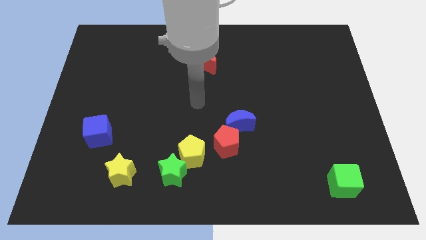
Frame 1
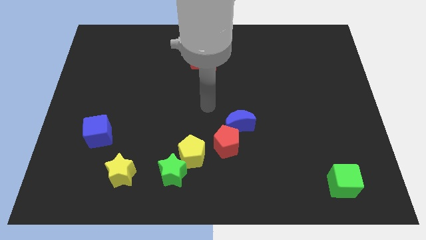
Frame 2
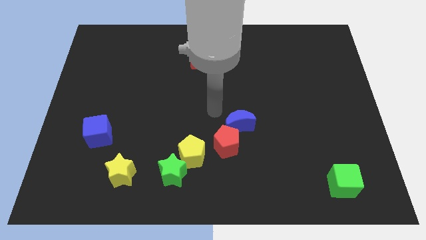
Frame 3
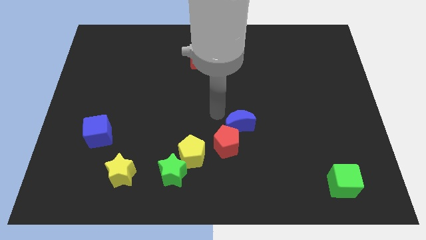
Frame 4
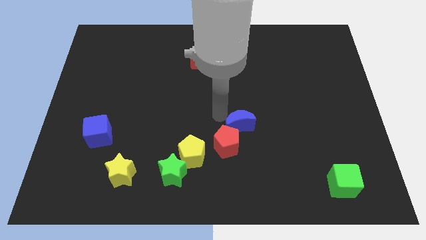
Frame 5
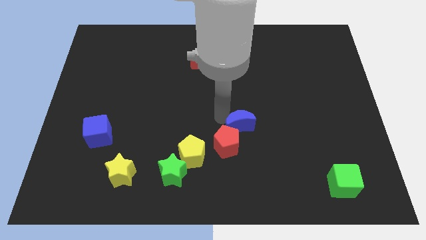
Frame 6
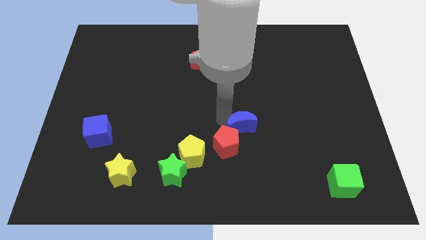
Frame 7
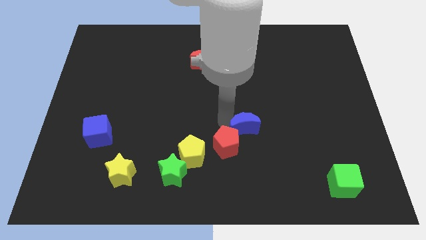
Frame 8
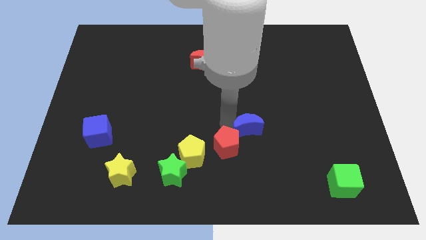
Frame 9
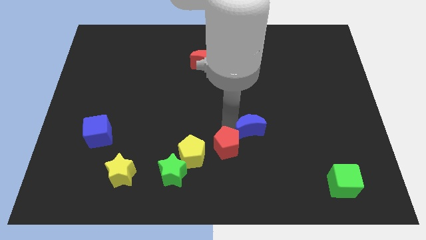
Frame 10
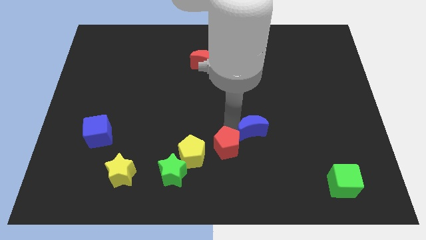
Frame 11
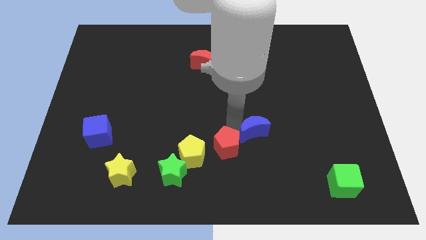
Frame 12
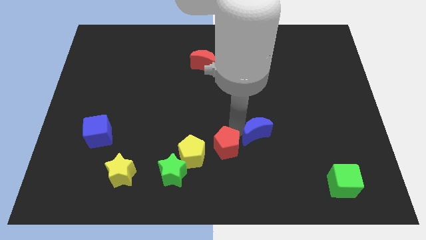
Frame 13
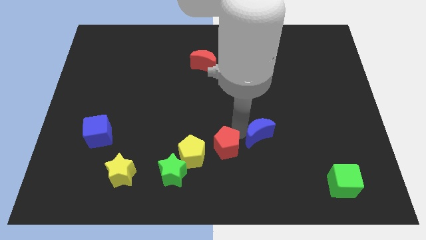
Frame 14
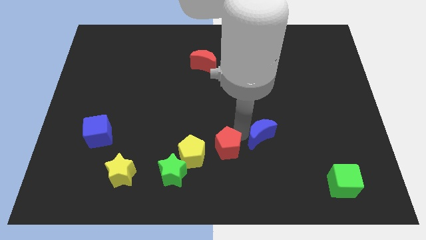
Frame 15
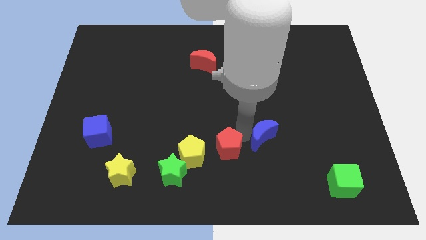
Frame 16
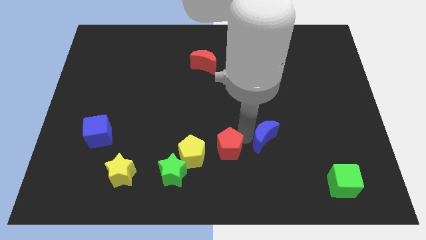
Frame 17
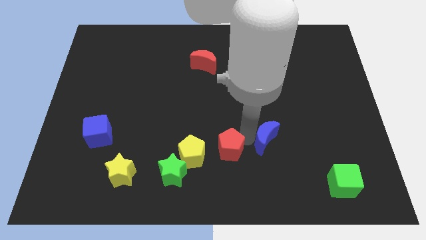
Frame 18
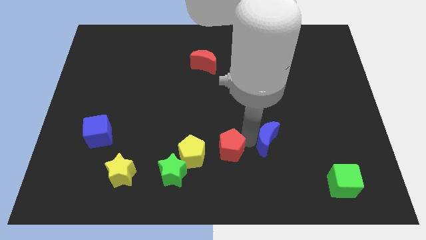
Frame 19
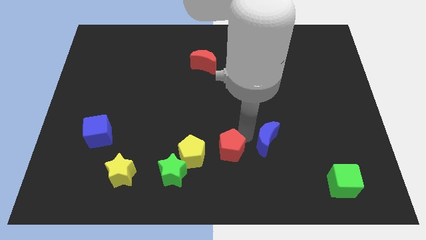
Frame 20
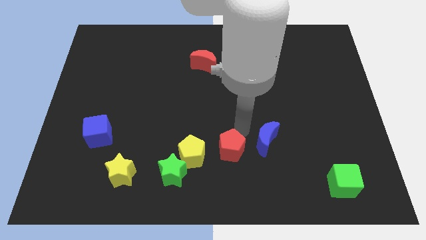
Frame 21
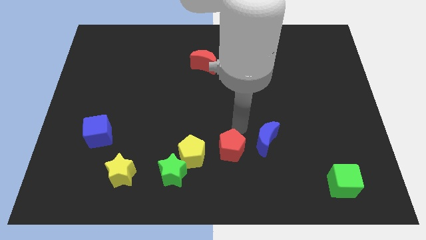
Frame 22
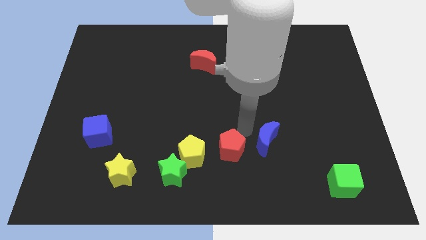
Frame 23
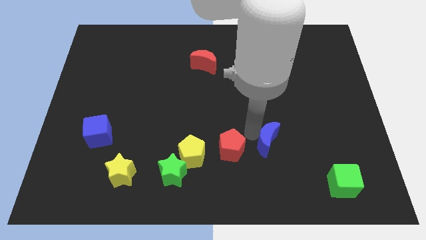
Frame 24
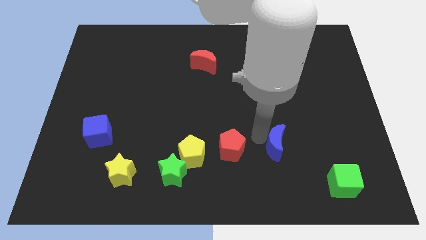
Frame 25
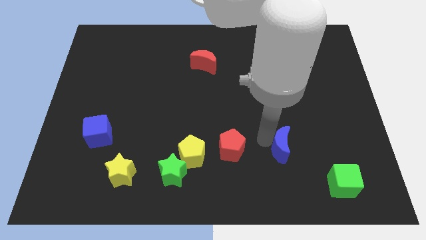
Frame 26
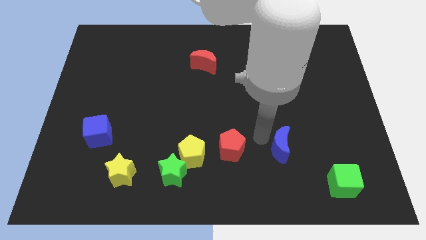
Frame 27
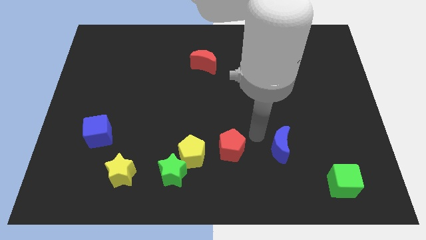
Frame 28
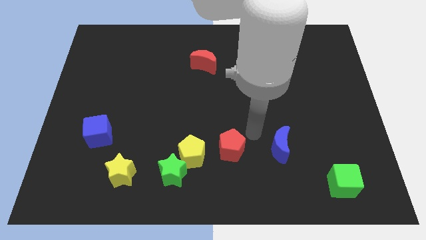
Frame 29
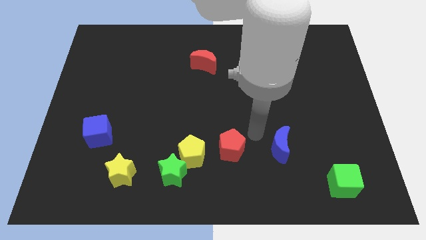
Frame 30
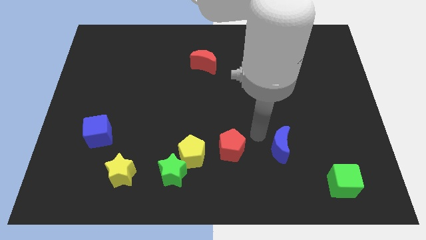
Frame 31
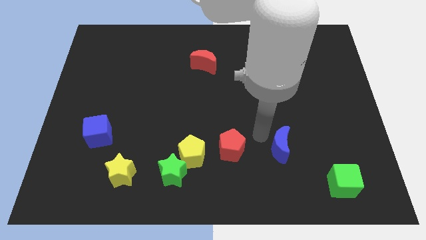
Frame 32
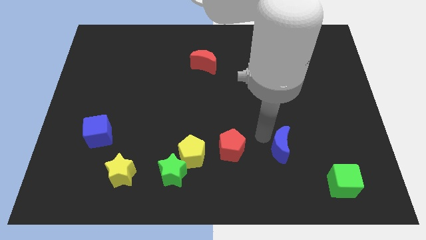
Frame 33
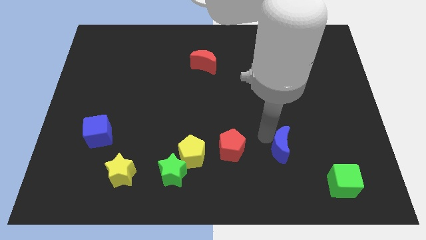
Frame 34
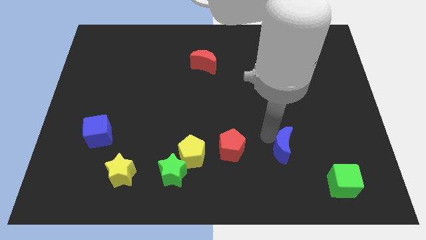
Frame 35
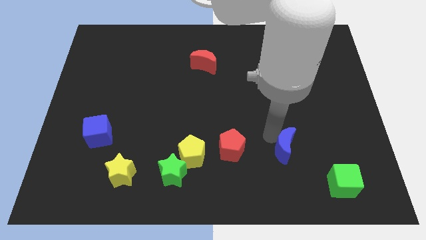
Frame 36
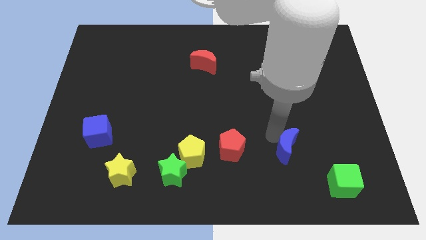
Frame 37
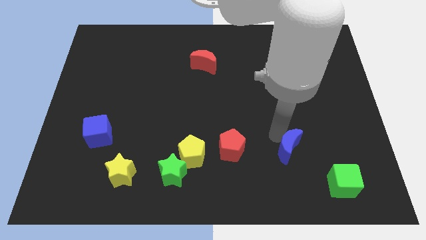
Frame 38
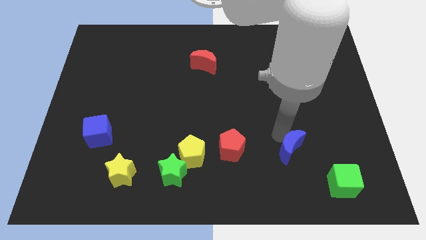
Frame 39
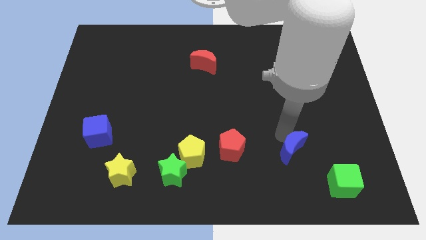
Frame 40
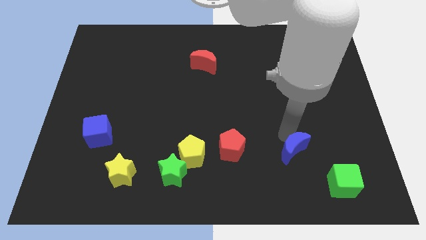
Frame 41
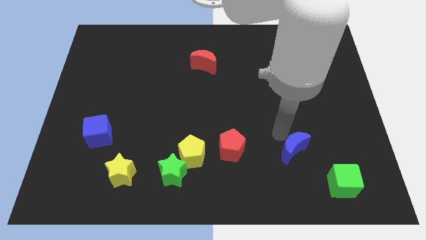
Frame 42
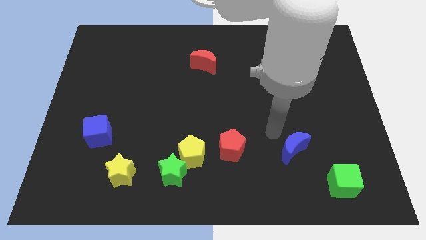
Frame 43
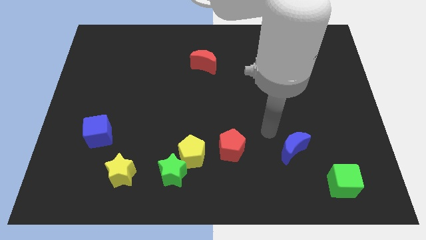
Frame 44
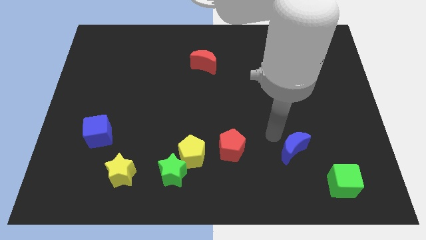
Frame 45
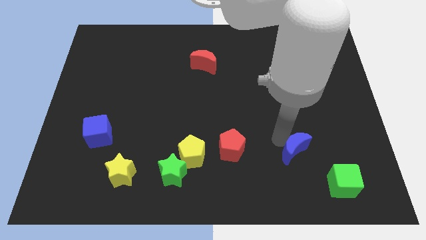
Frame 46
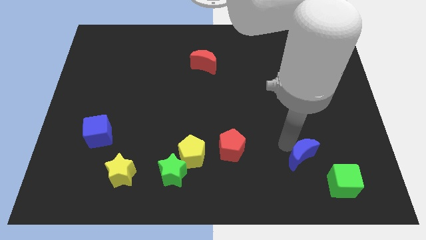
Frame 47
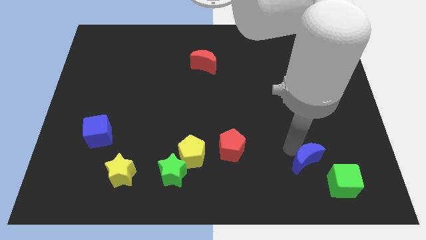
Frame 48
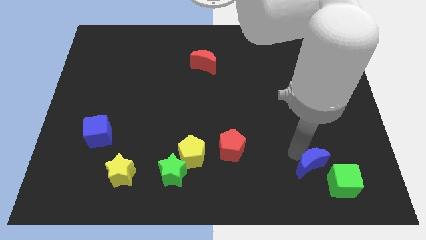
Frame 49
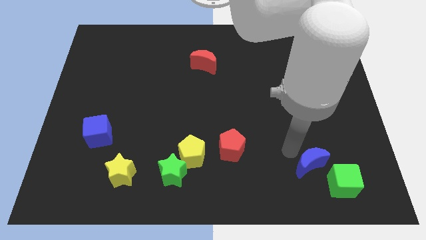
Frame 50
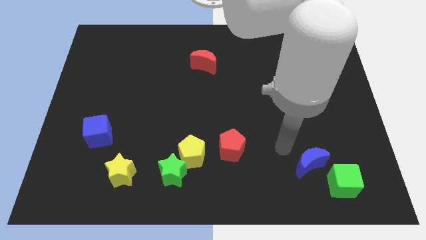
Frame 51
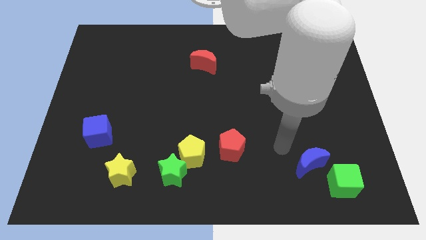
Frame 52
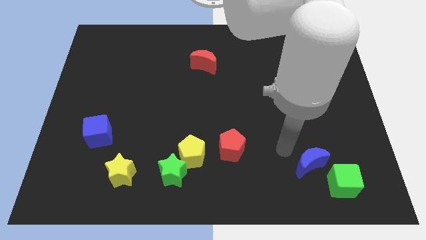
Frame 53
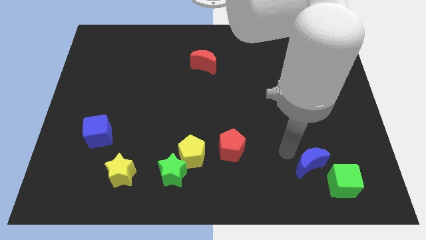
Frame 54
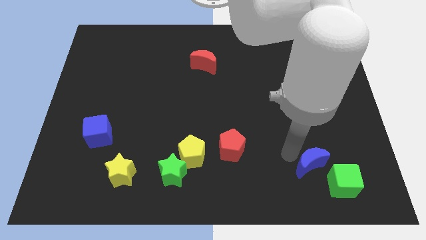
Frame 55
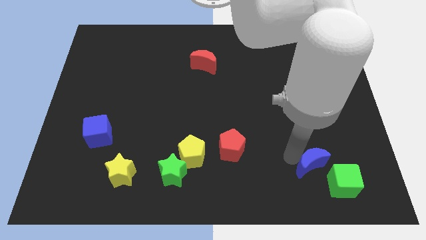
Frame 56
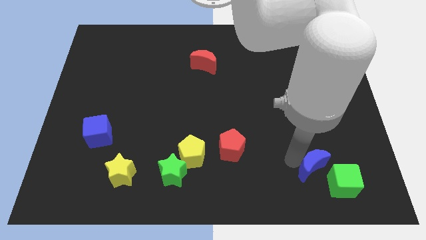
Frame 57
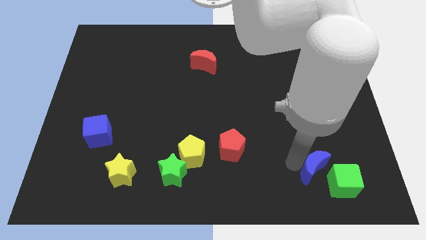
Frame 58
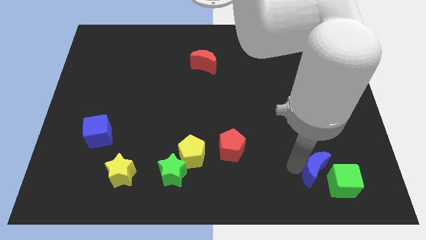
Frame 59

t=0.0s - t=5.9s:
slide the blue moon towards the green cube

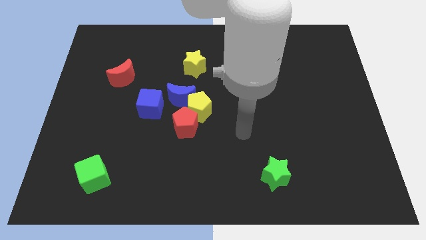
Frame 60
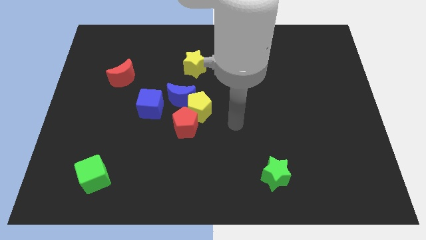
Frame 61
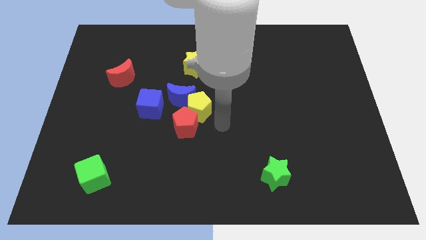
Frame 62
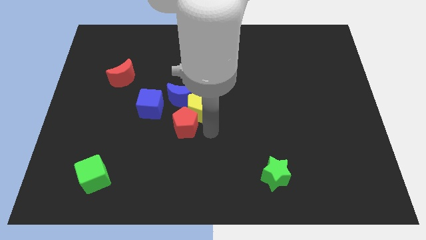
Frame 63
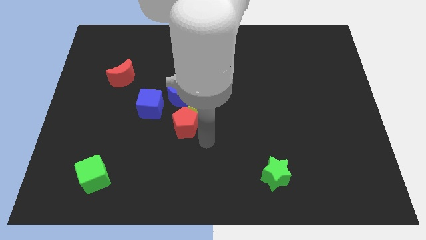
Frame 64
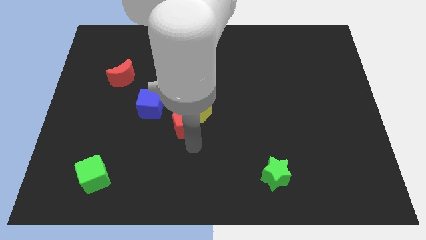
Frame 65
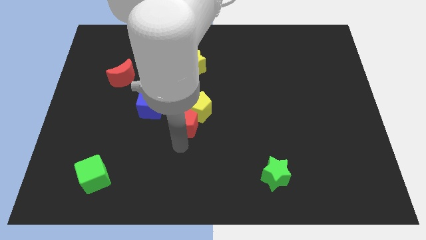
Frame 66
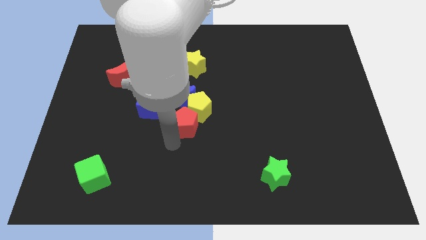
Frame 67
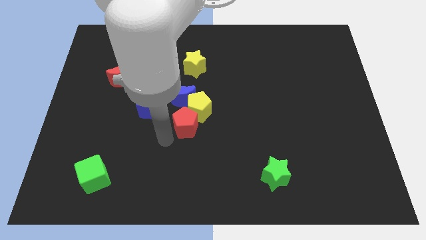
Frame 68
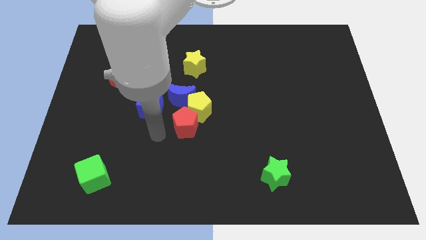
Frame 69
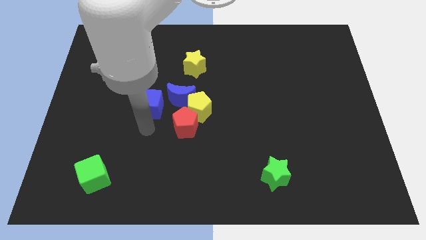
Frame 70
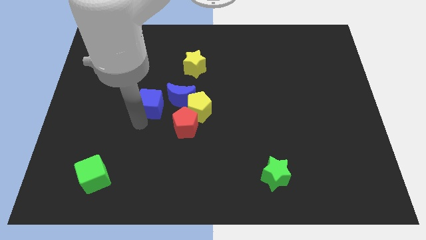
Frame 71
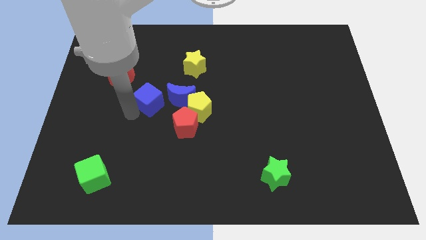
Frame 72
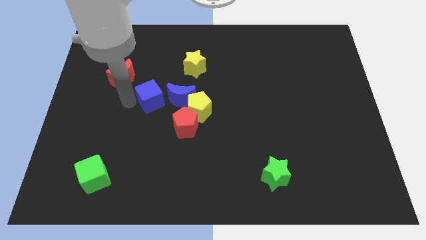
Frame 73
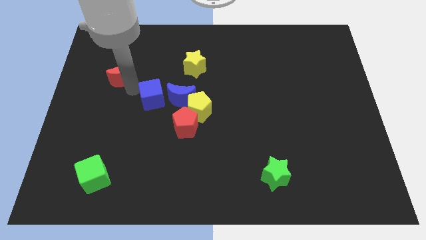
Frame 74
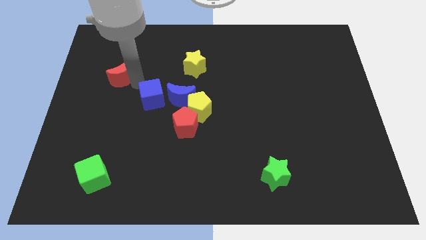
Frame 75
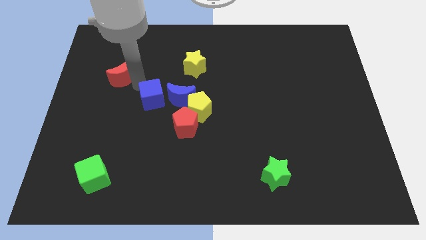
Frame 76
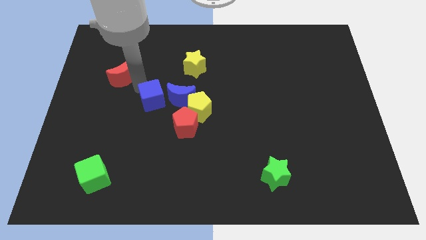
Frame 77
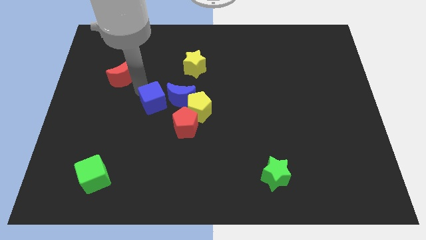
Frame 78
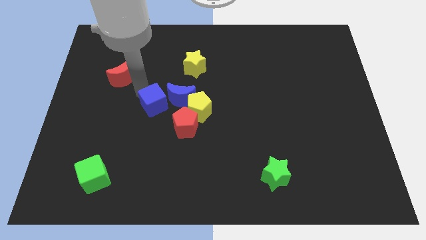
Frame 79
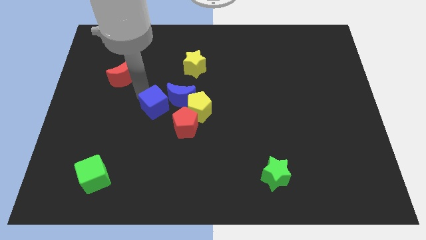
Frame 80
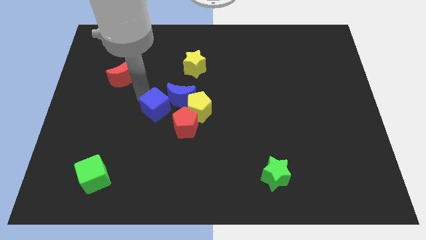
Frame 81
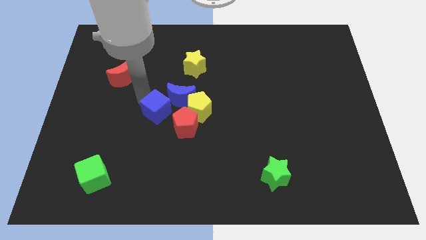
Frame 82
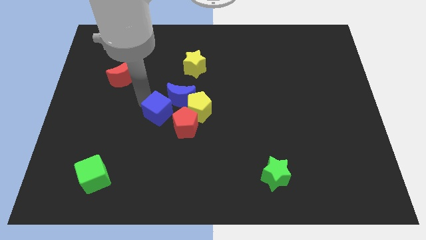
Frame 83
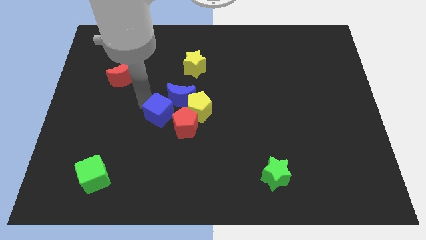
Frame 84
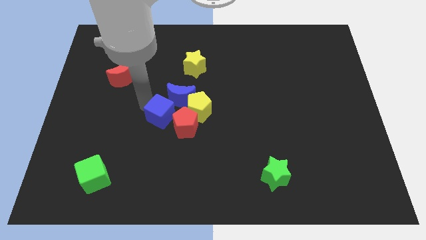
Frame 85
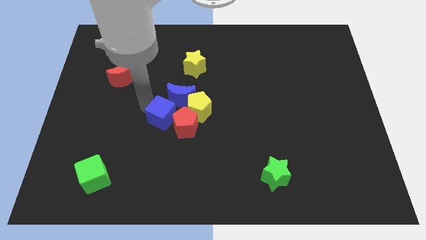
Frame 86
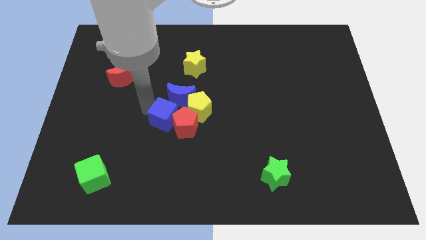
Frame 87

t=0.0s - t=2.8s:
slide the blue cube towards the red pentagon
